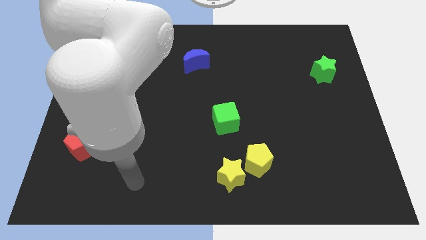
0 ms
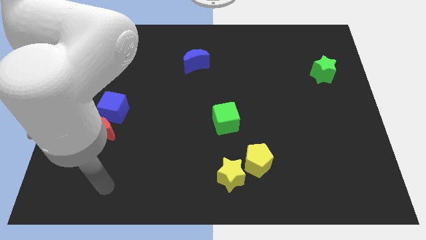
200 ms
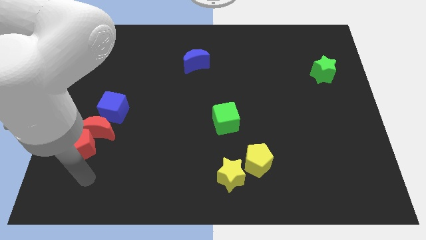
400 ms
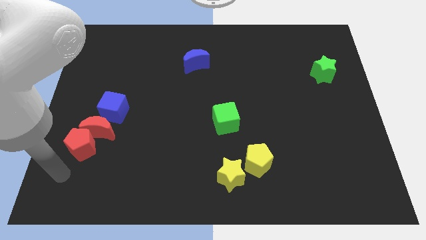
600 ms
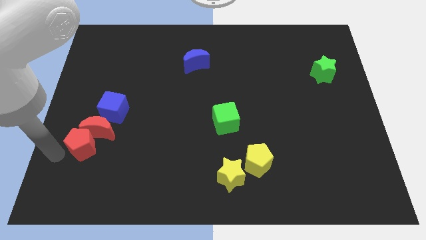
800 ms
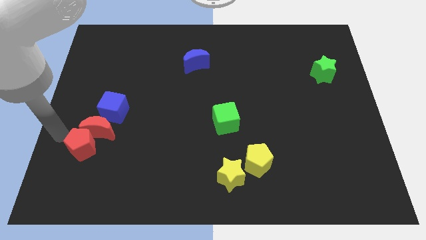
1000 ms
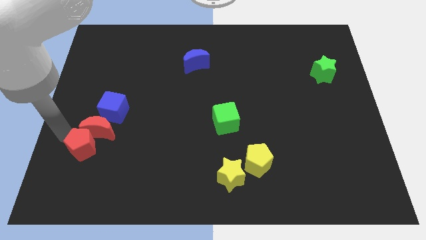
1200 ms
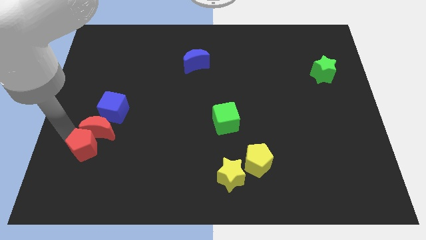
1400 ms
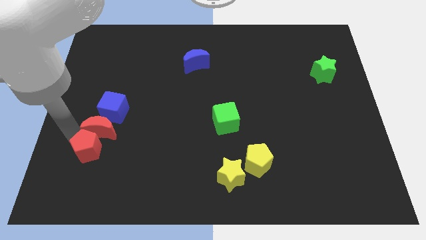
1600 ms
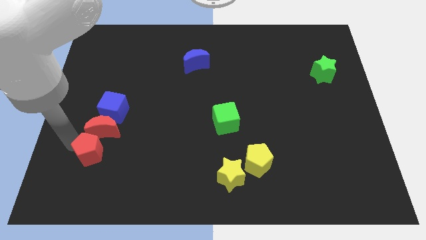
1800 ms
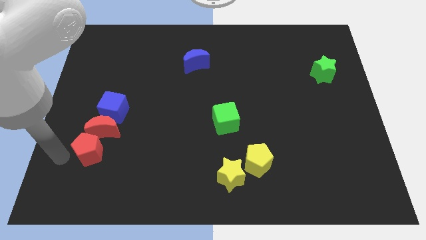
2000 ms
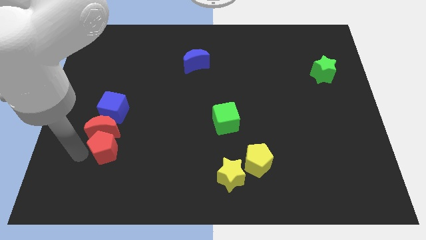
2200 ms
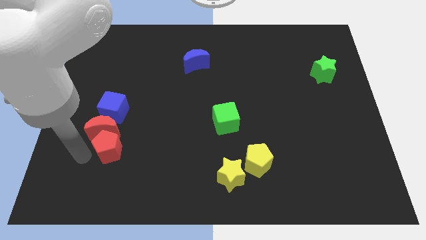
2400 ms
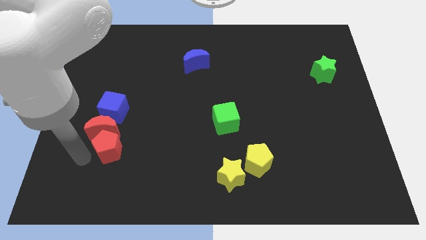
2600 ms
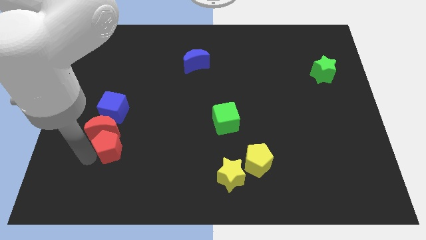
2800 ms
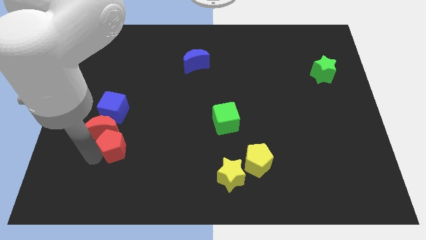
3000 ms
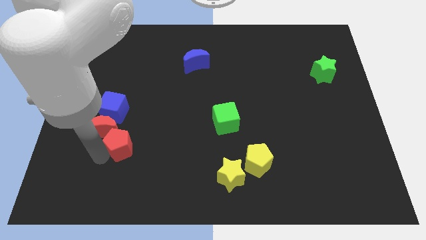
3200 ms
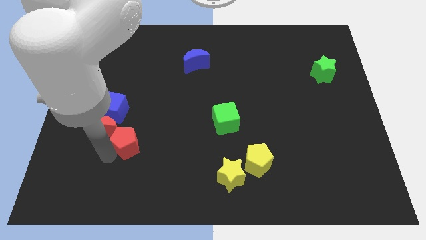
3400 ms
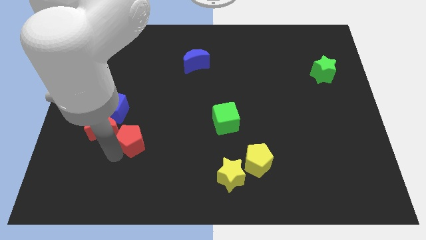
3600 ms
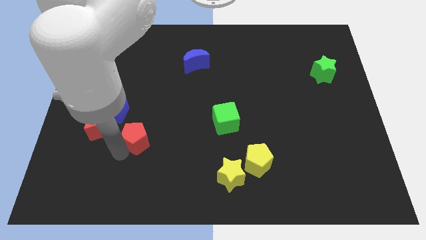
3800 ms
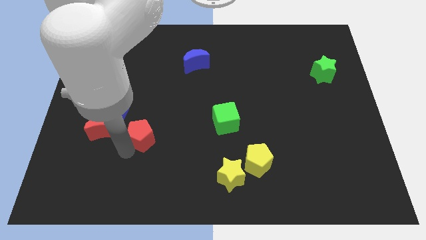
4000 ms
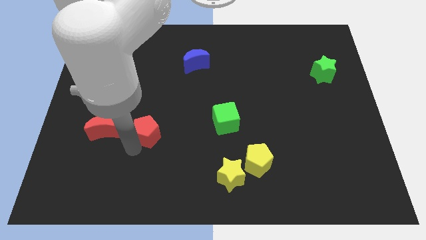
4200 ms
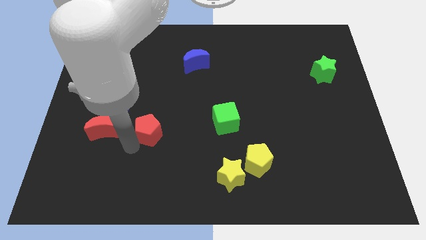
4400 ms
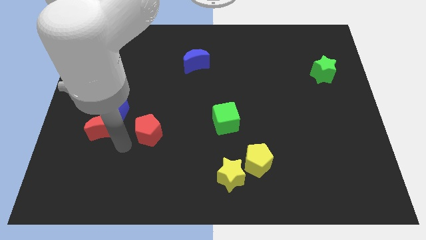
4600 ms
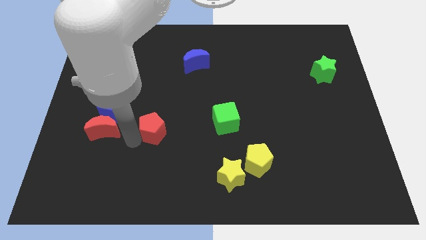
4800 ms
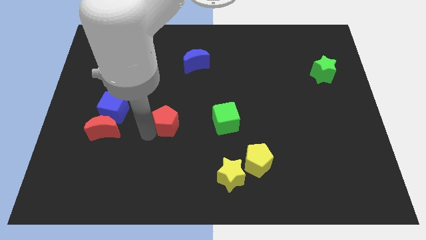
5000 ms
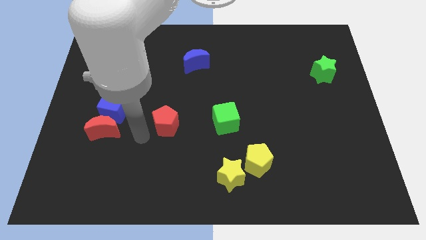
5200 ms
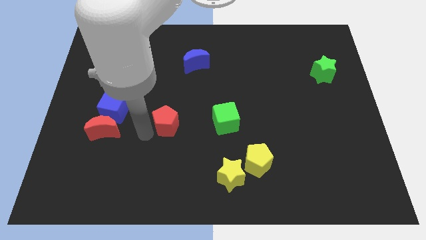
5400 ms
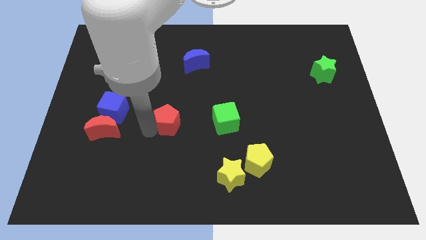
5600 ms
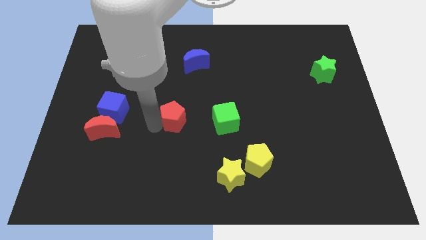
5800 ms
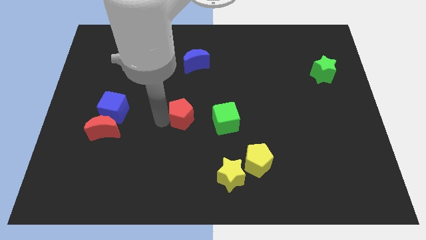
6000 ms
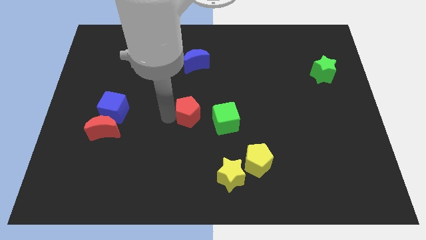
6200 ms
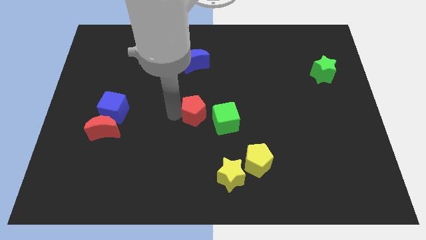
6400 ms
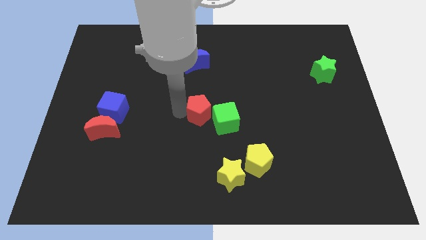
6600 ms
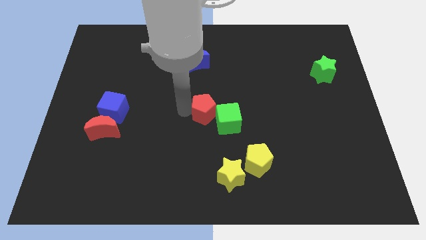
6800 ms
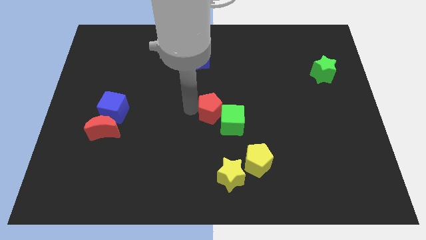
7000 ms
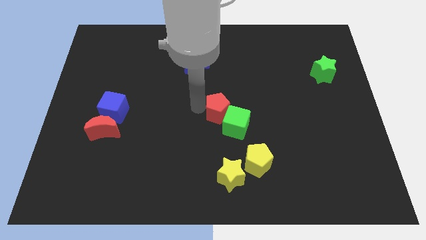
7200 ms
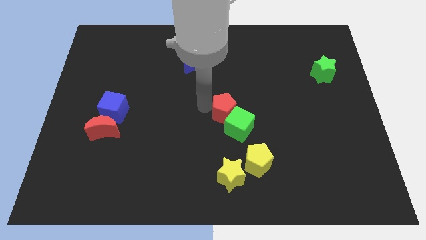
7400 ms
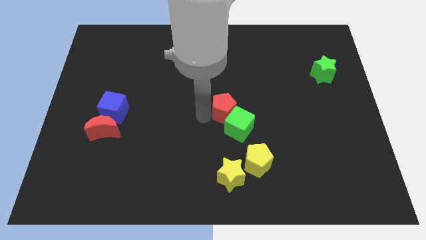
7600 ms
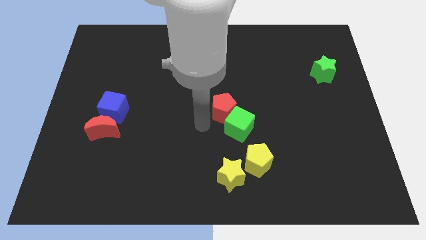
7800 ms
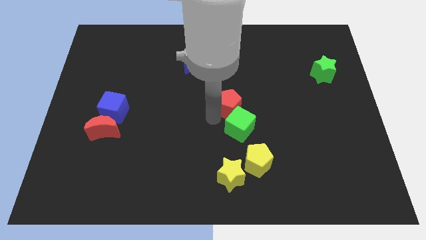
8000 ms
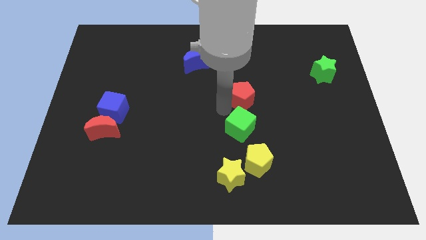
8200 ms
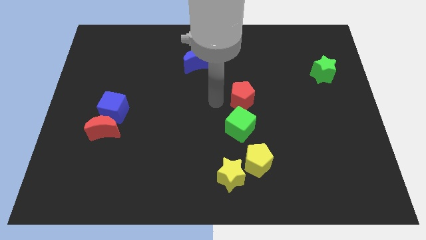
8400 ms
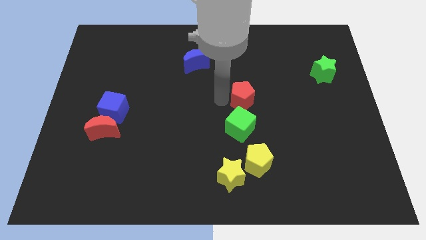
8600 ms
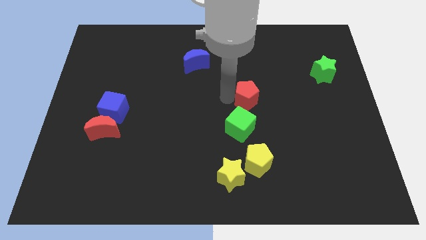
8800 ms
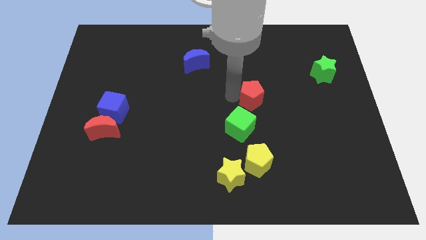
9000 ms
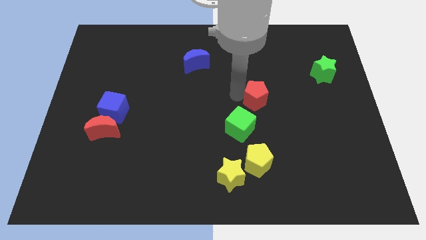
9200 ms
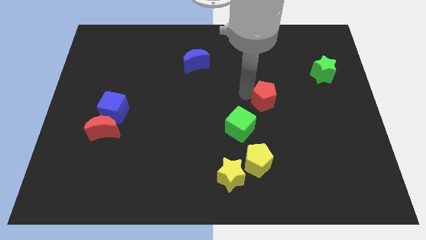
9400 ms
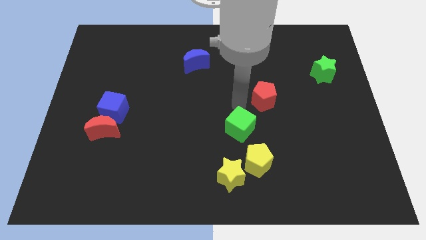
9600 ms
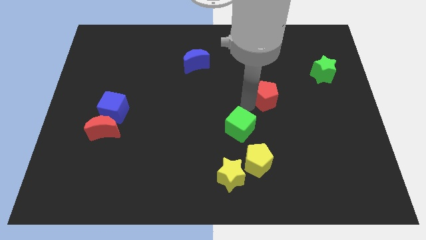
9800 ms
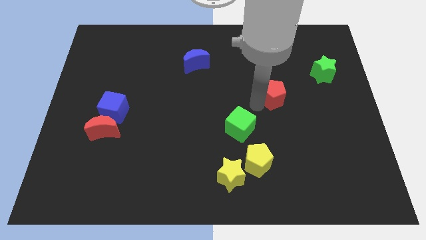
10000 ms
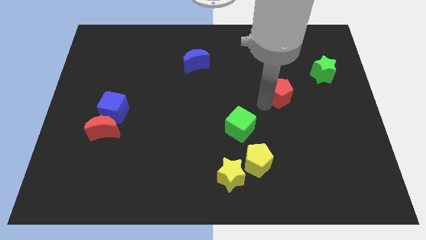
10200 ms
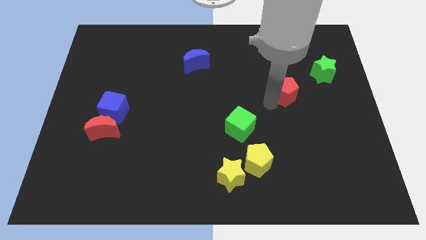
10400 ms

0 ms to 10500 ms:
slide the red pentagon to the bottom left of the green star

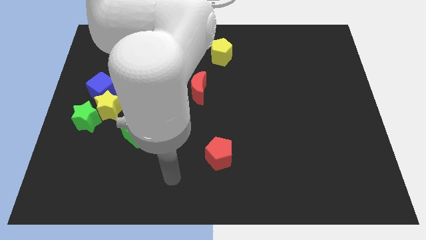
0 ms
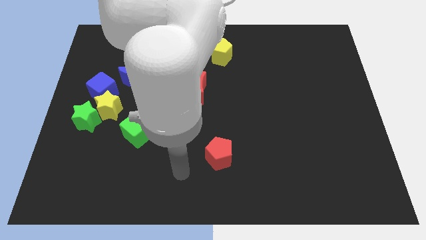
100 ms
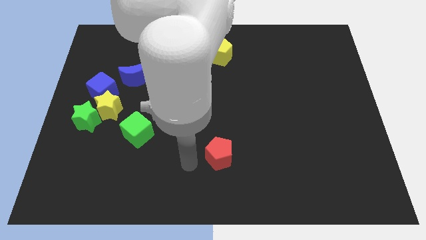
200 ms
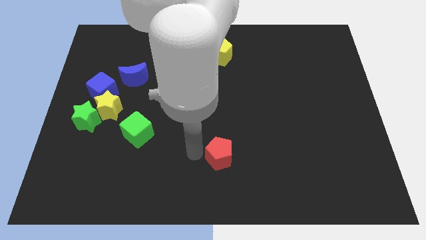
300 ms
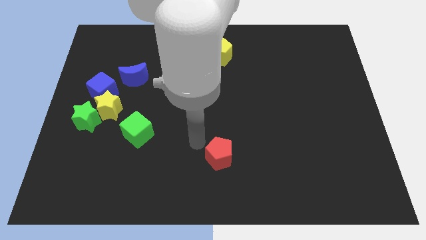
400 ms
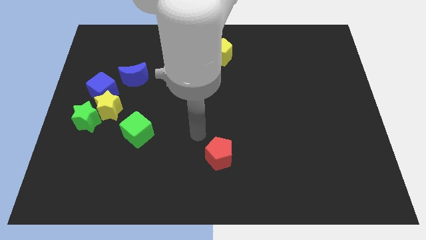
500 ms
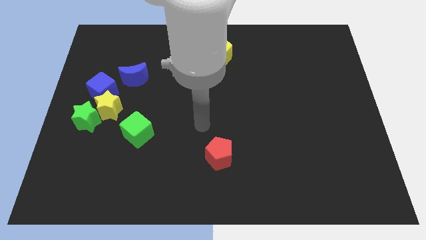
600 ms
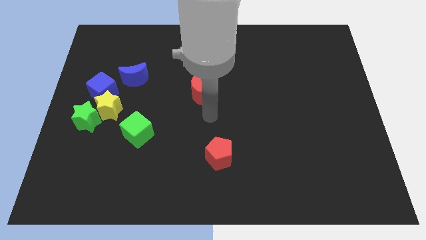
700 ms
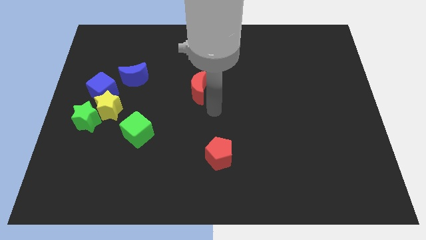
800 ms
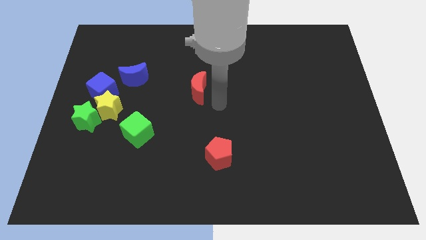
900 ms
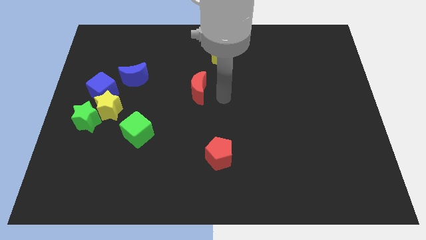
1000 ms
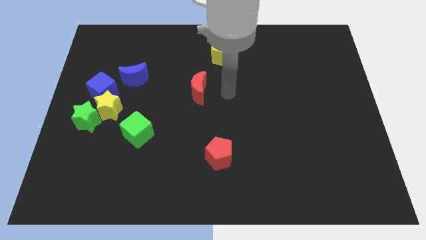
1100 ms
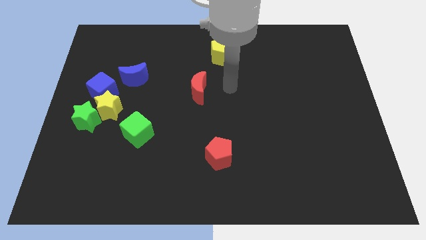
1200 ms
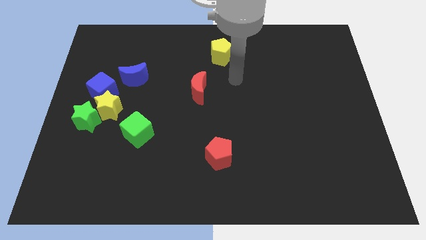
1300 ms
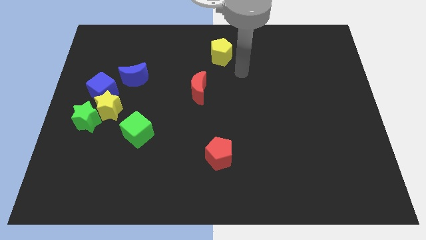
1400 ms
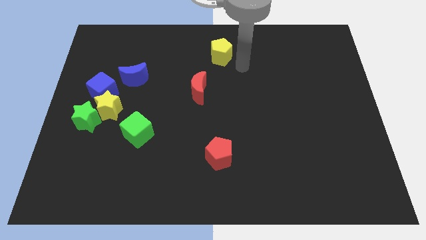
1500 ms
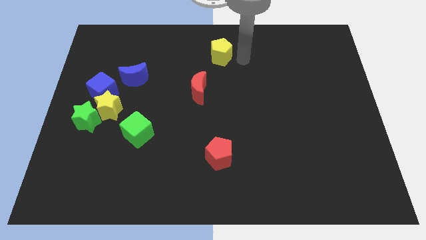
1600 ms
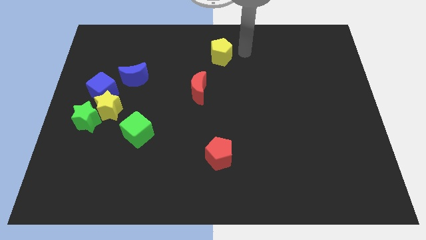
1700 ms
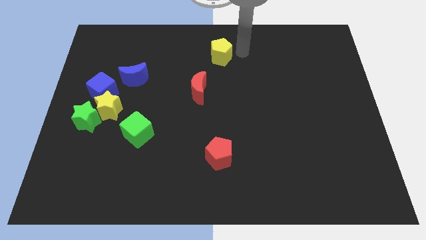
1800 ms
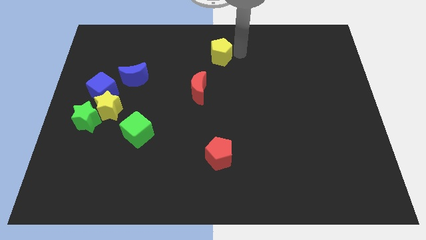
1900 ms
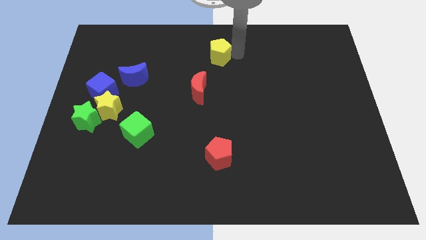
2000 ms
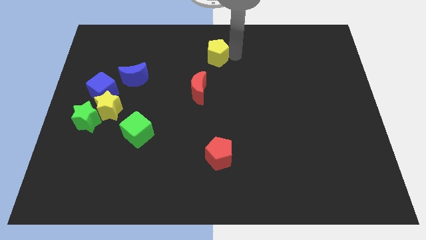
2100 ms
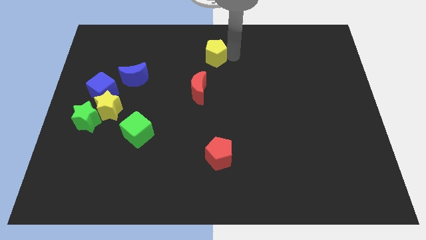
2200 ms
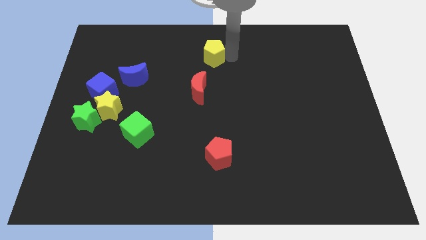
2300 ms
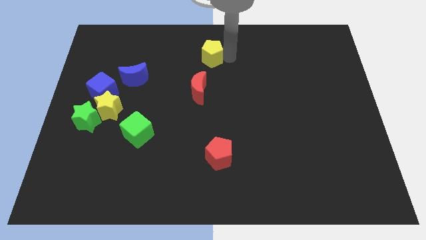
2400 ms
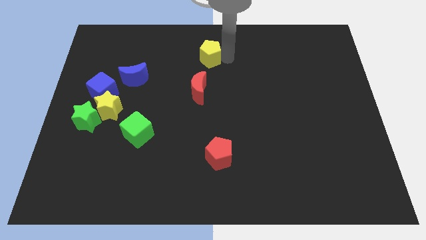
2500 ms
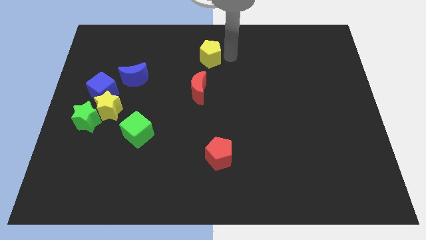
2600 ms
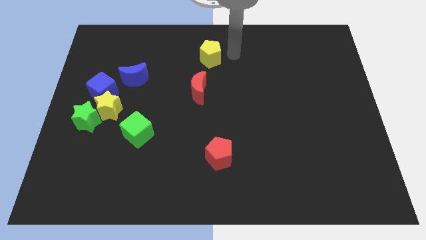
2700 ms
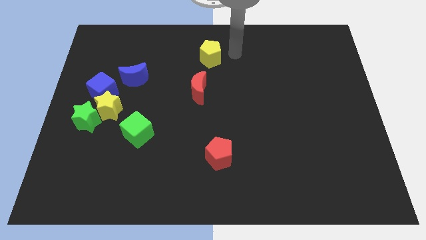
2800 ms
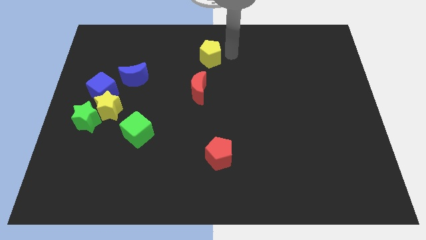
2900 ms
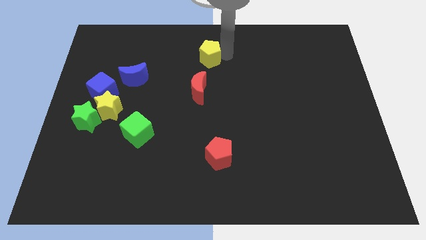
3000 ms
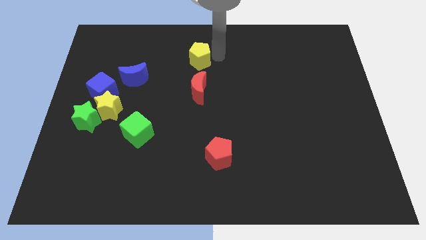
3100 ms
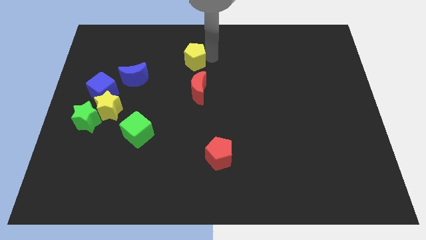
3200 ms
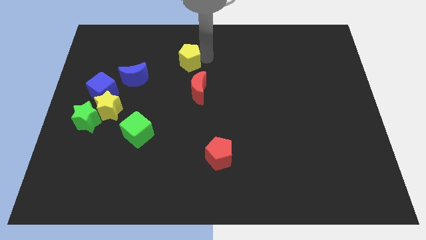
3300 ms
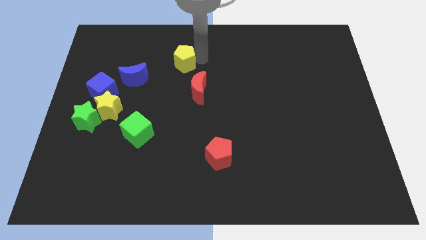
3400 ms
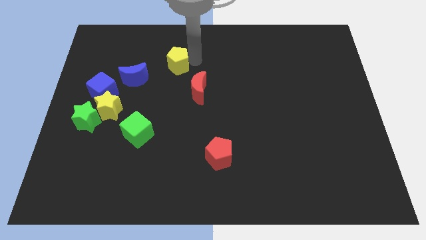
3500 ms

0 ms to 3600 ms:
push the yellow pentagon to the top right of the blue moon
